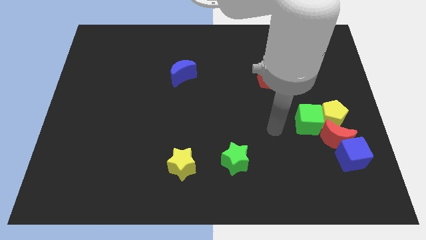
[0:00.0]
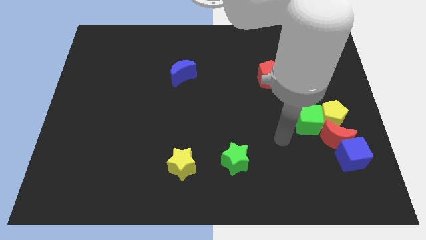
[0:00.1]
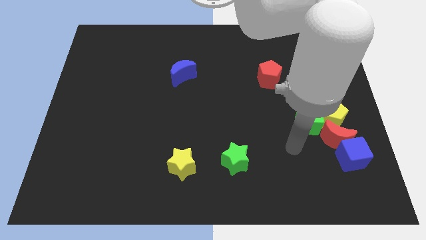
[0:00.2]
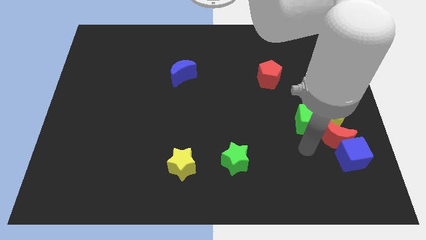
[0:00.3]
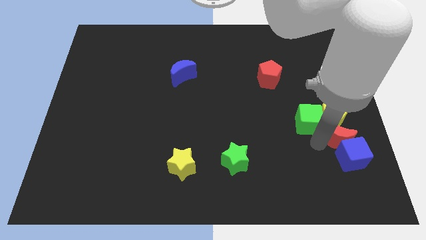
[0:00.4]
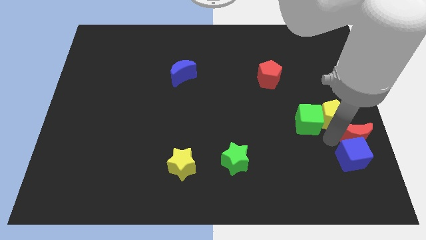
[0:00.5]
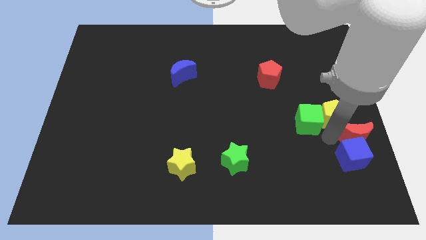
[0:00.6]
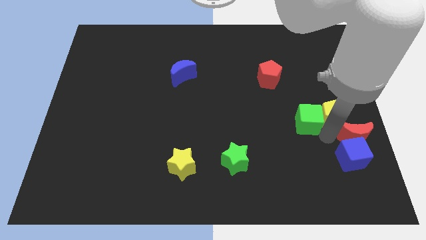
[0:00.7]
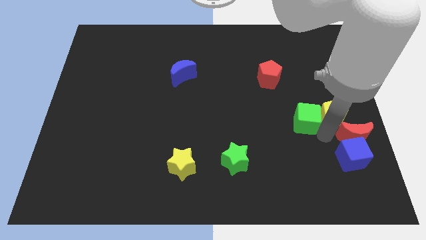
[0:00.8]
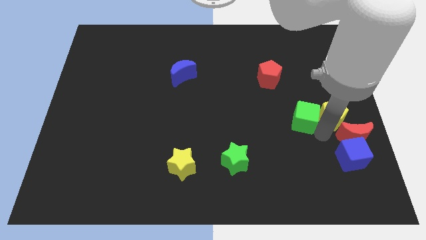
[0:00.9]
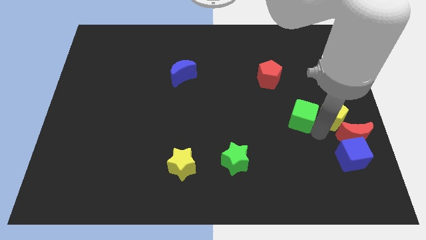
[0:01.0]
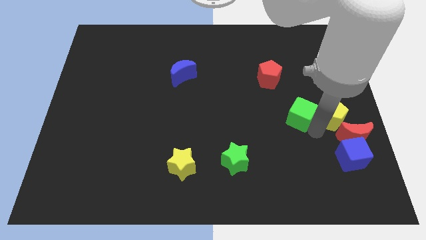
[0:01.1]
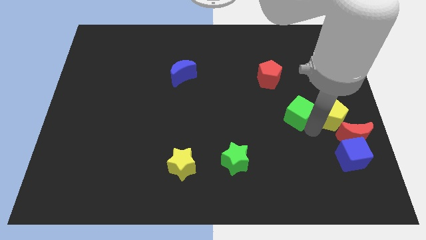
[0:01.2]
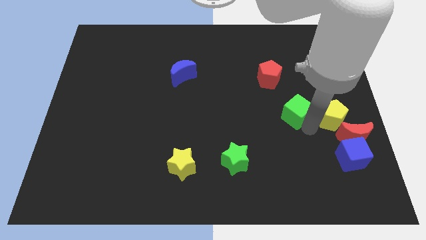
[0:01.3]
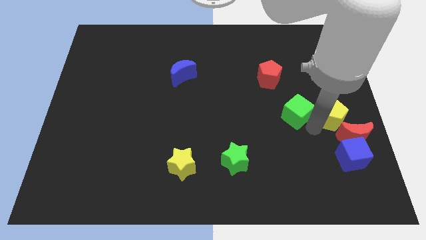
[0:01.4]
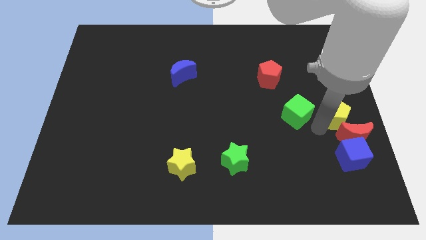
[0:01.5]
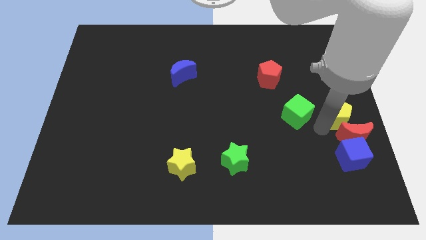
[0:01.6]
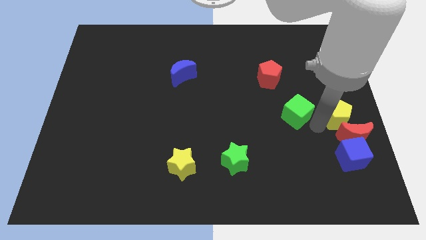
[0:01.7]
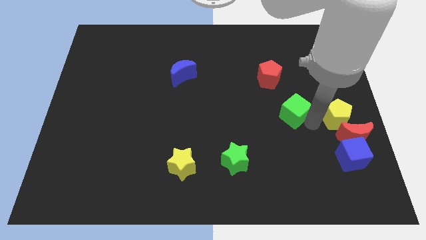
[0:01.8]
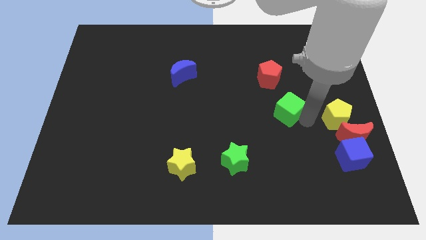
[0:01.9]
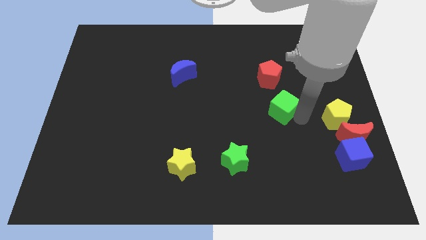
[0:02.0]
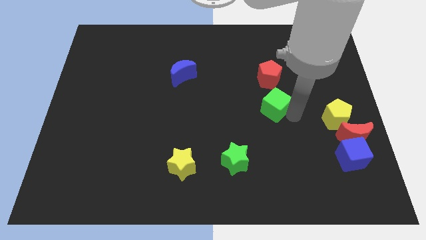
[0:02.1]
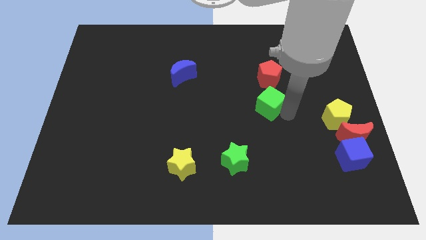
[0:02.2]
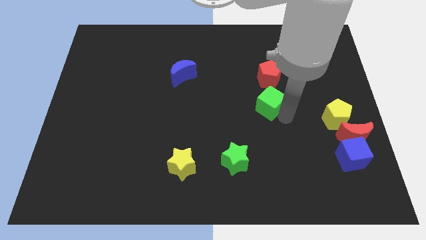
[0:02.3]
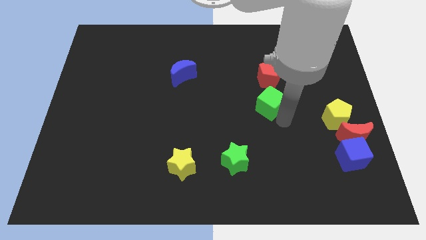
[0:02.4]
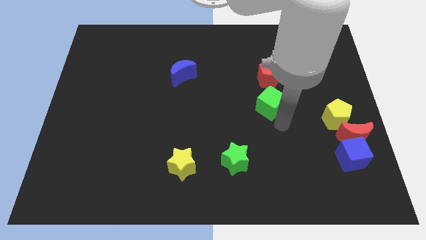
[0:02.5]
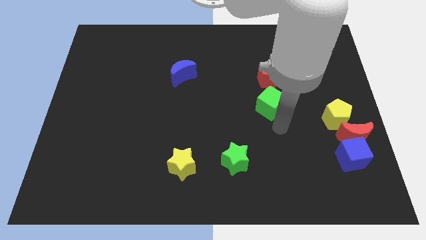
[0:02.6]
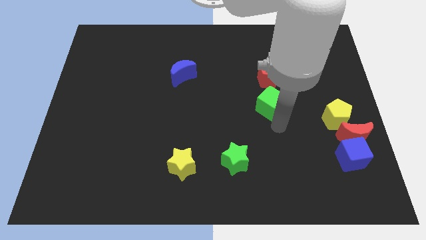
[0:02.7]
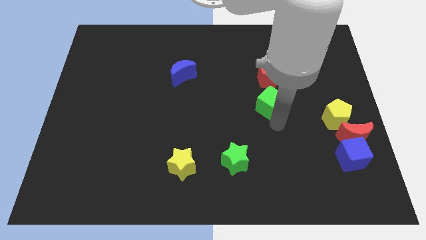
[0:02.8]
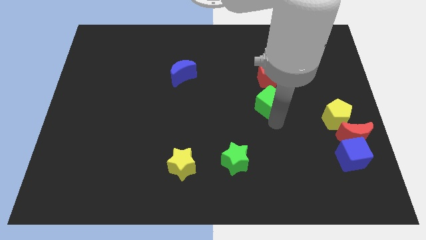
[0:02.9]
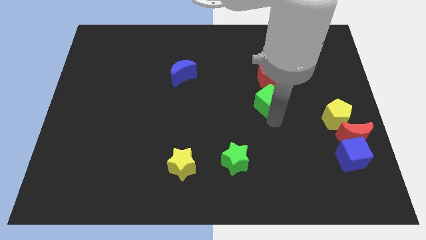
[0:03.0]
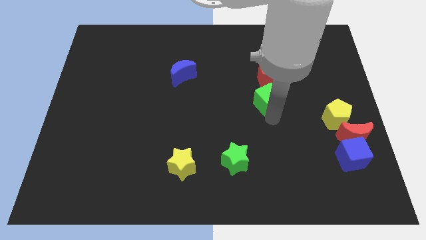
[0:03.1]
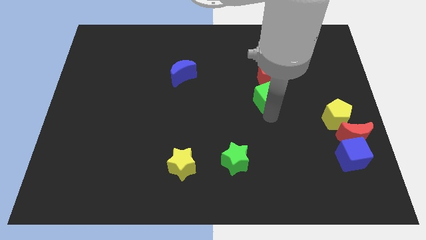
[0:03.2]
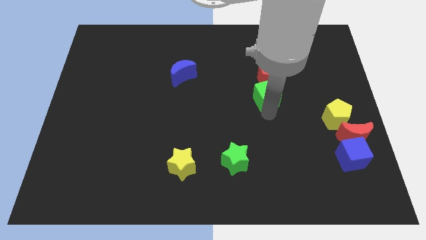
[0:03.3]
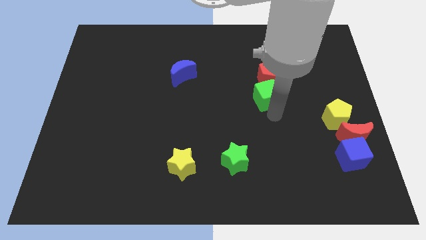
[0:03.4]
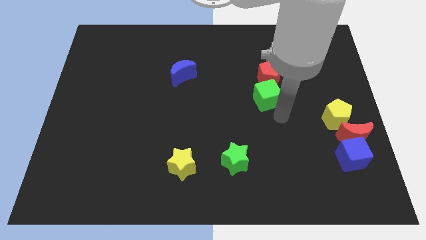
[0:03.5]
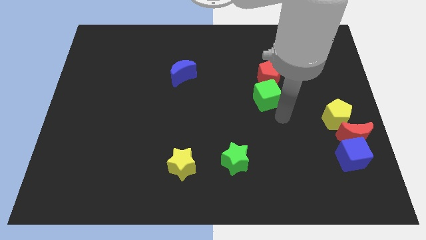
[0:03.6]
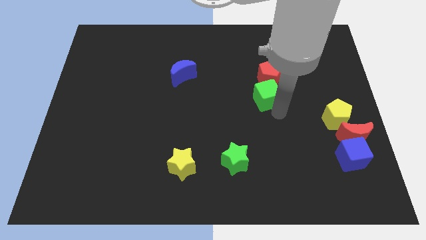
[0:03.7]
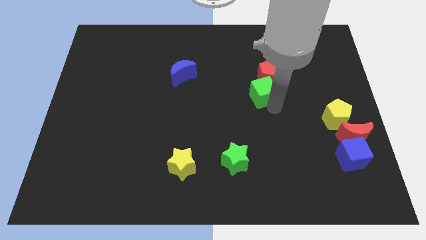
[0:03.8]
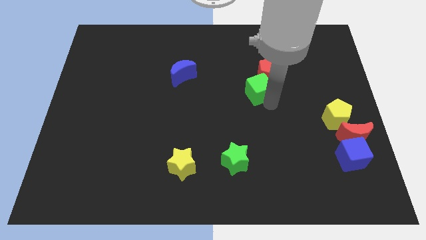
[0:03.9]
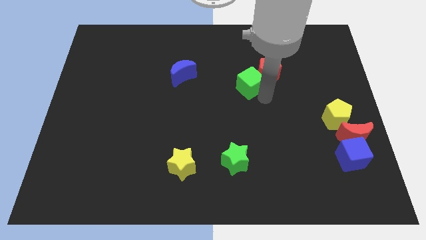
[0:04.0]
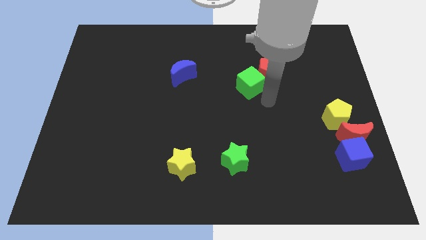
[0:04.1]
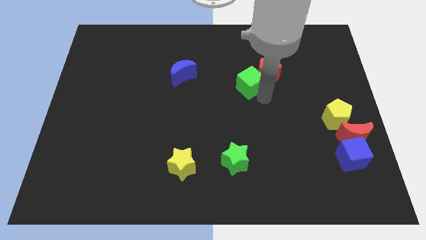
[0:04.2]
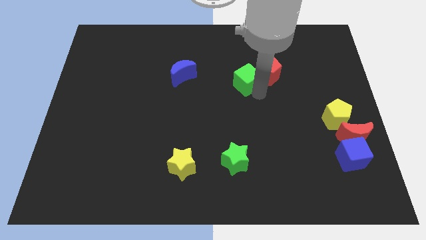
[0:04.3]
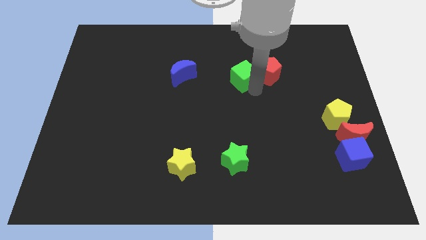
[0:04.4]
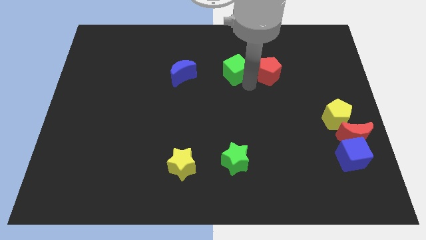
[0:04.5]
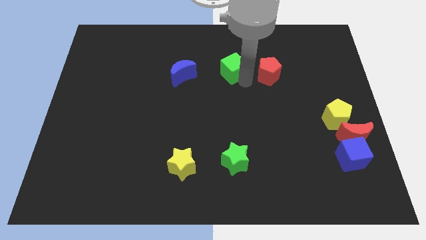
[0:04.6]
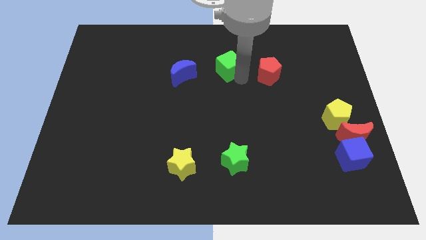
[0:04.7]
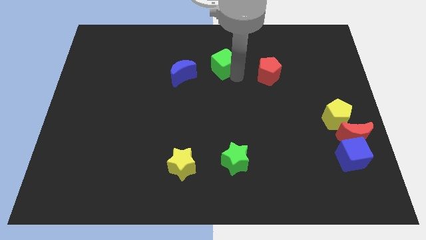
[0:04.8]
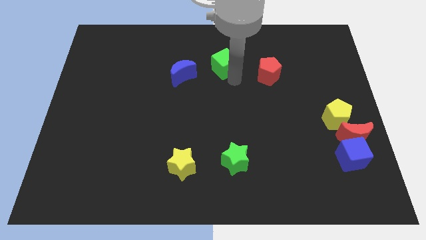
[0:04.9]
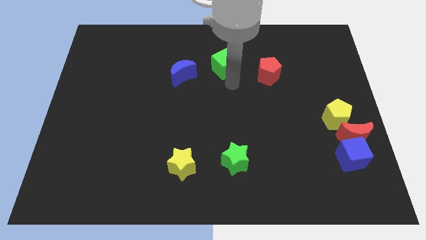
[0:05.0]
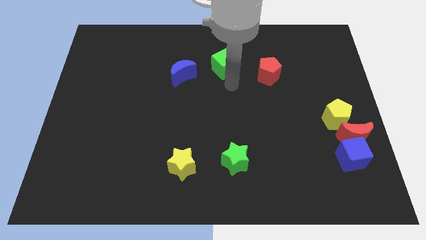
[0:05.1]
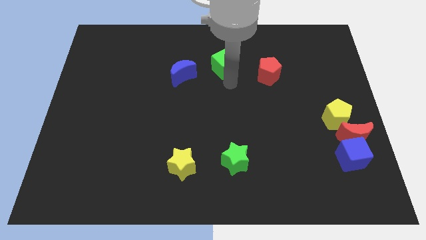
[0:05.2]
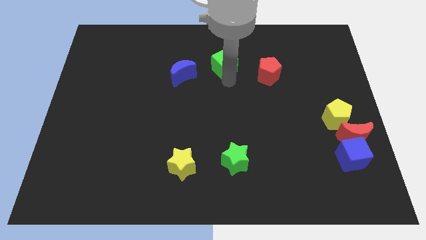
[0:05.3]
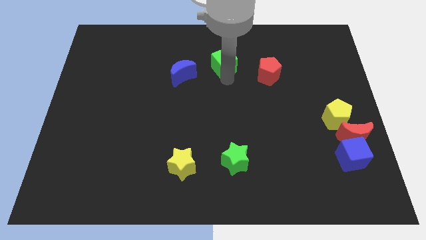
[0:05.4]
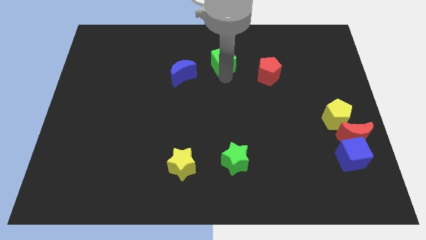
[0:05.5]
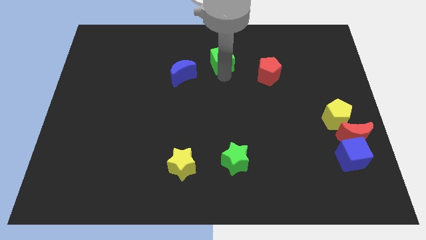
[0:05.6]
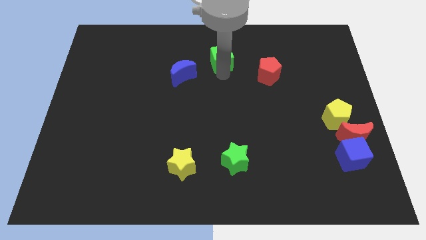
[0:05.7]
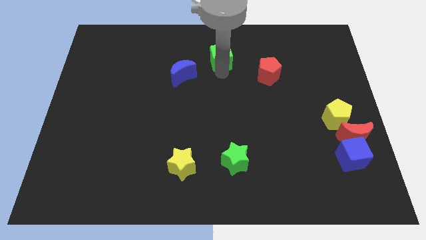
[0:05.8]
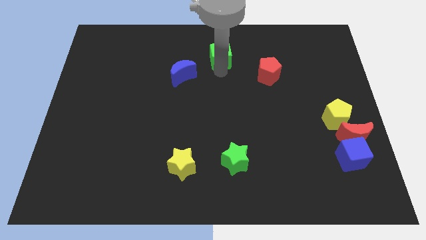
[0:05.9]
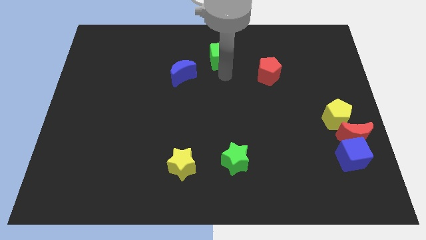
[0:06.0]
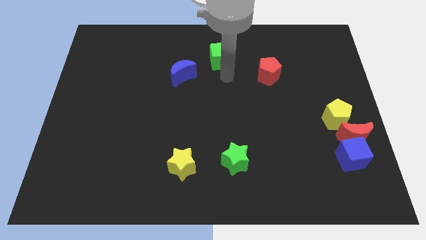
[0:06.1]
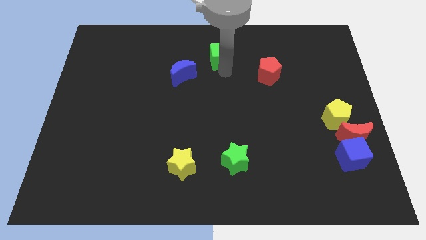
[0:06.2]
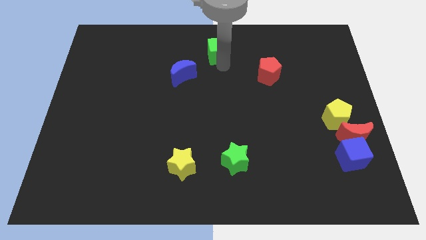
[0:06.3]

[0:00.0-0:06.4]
put the green cube to the towards your base
